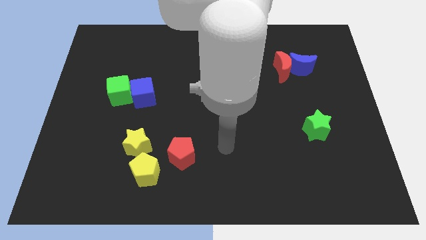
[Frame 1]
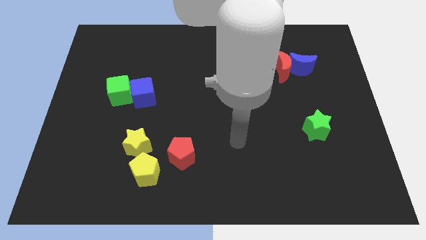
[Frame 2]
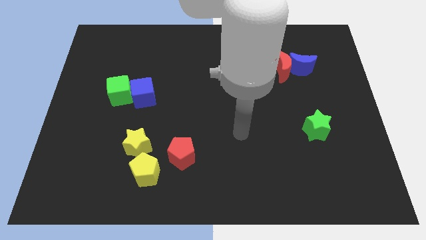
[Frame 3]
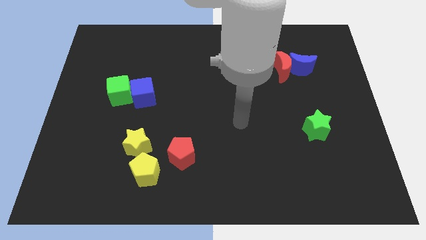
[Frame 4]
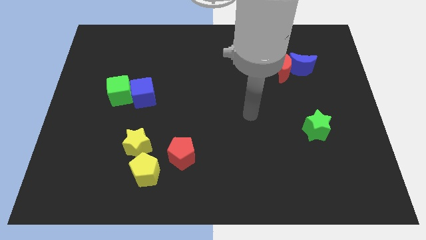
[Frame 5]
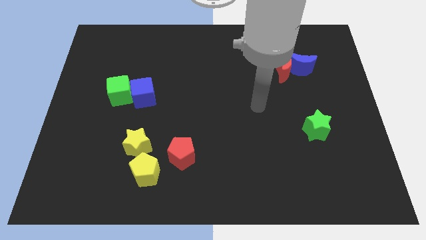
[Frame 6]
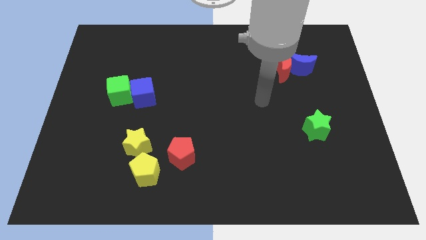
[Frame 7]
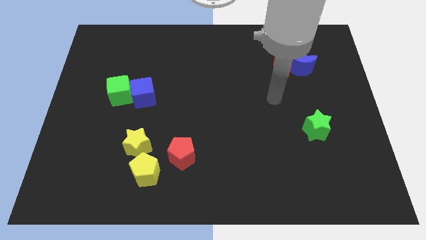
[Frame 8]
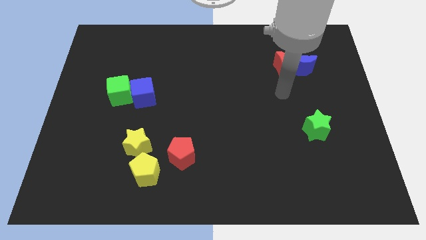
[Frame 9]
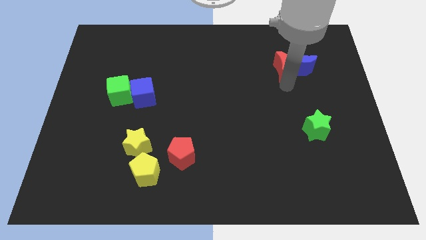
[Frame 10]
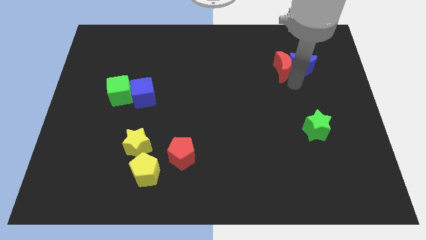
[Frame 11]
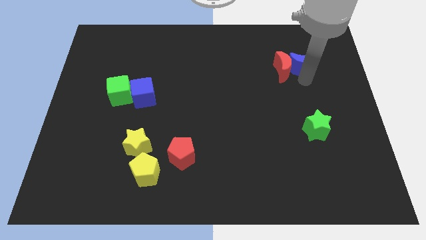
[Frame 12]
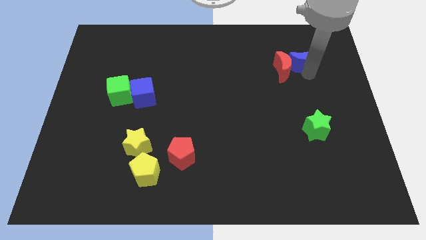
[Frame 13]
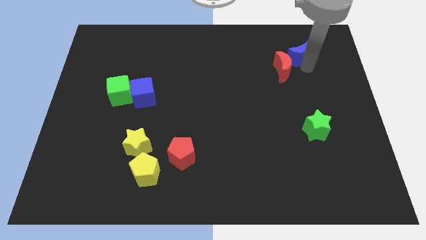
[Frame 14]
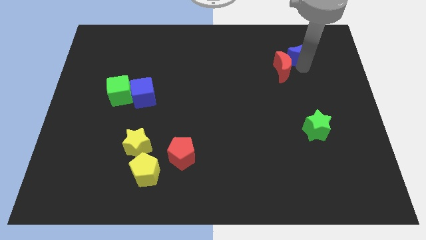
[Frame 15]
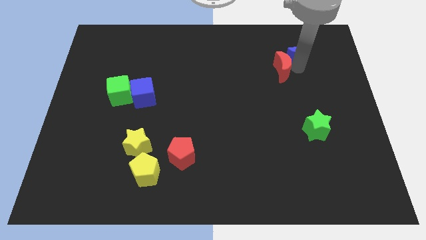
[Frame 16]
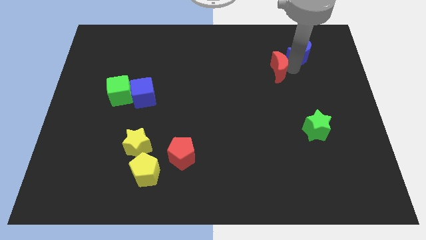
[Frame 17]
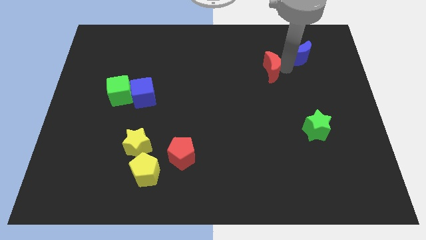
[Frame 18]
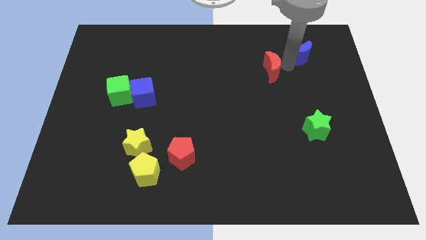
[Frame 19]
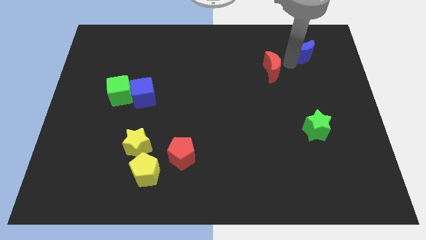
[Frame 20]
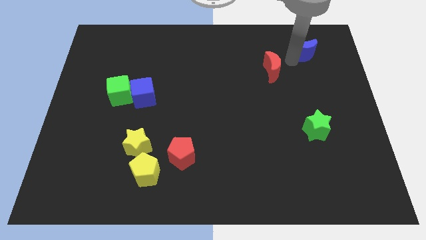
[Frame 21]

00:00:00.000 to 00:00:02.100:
move the red moon away from the blue moon

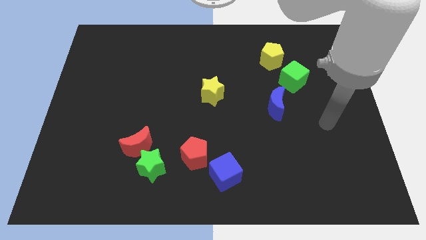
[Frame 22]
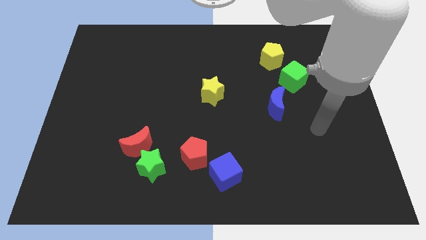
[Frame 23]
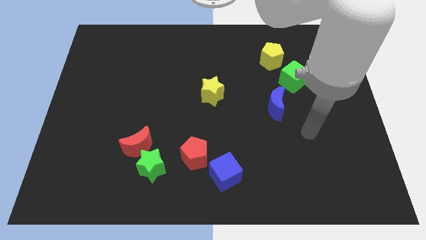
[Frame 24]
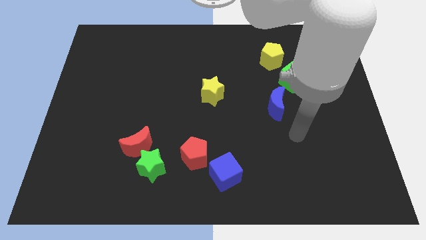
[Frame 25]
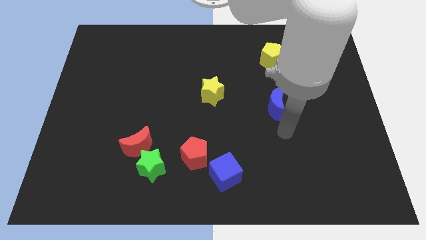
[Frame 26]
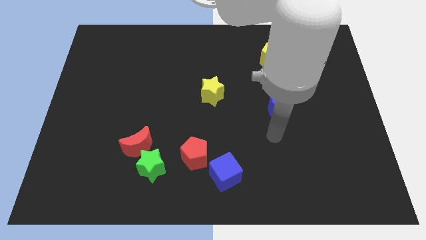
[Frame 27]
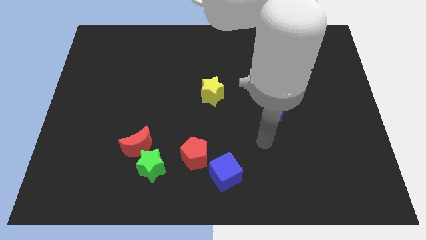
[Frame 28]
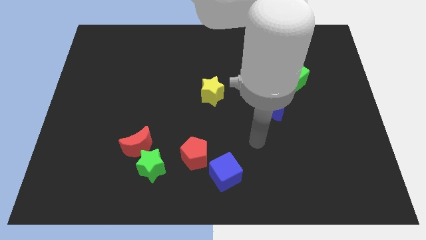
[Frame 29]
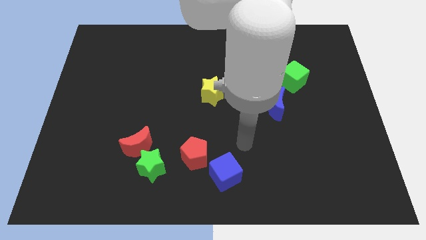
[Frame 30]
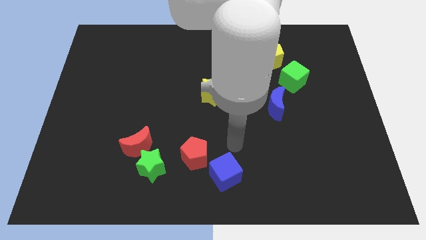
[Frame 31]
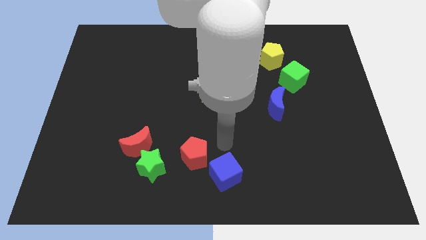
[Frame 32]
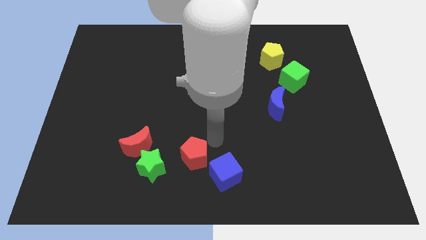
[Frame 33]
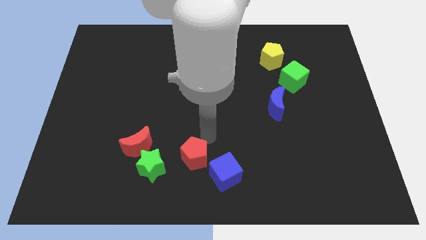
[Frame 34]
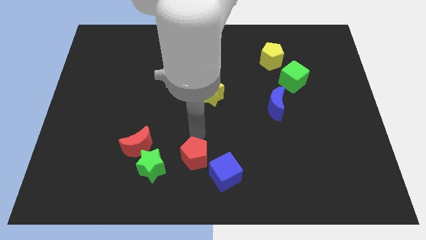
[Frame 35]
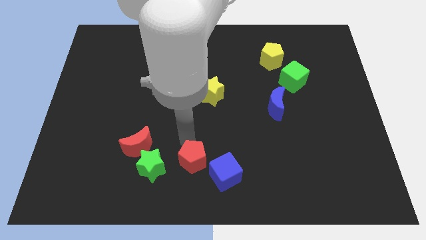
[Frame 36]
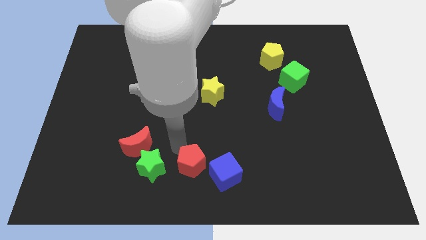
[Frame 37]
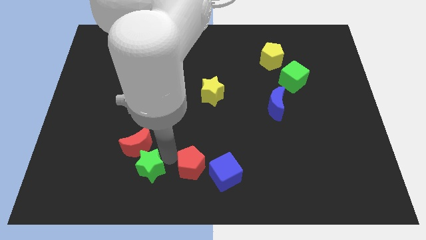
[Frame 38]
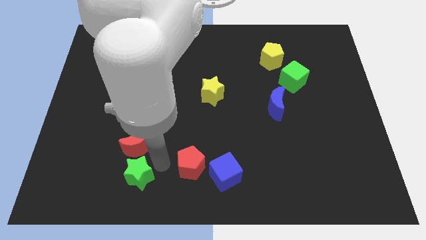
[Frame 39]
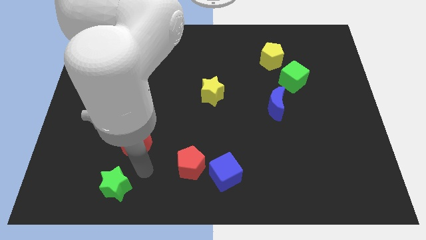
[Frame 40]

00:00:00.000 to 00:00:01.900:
separate the red moon from the green star

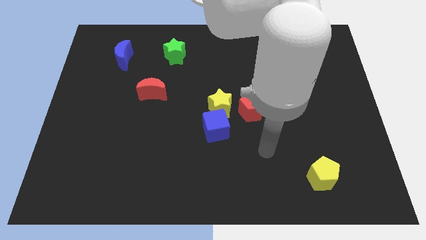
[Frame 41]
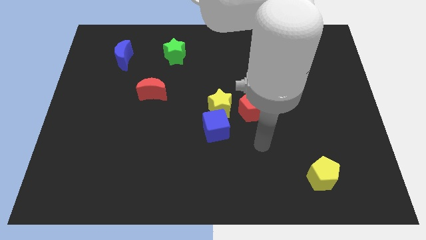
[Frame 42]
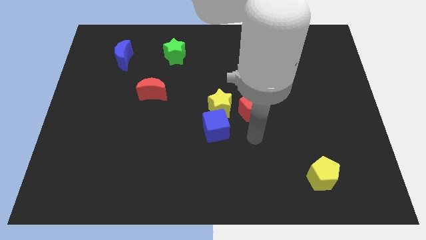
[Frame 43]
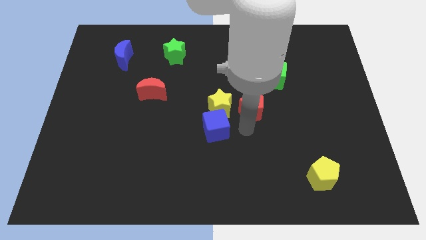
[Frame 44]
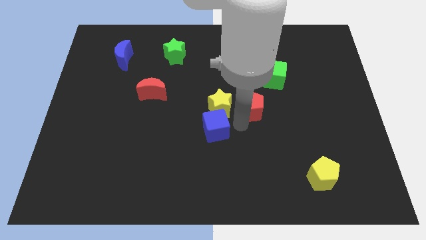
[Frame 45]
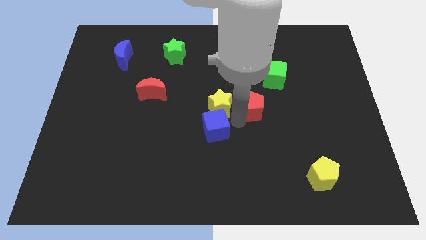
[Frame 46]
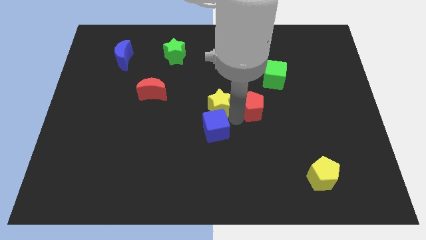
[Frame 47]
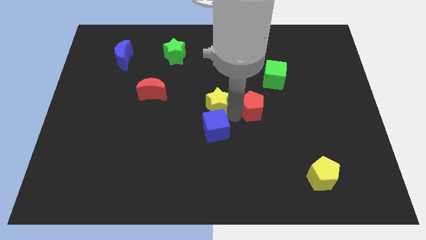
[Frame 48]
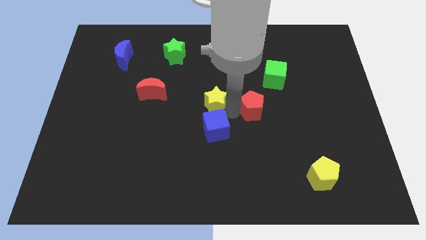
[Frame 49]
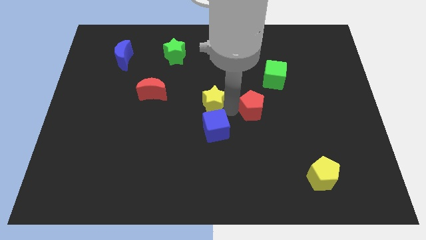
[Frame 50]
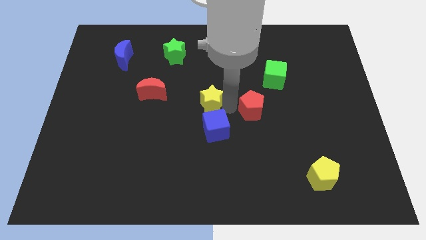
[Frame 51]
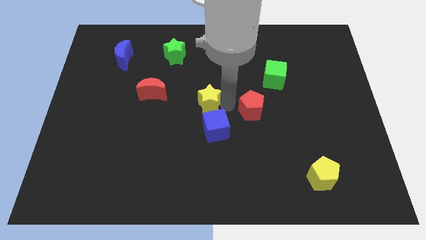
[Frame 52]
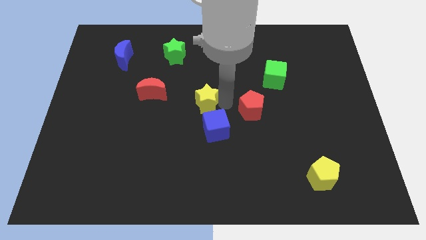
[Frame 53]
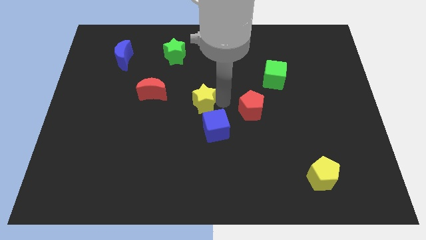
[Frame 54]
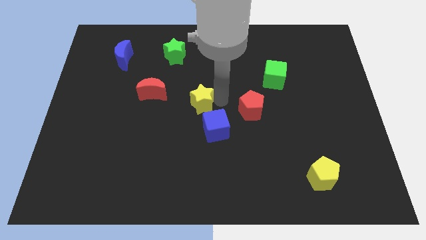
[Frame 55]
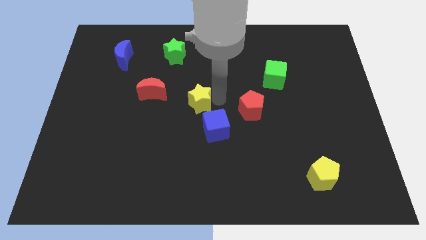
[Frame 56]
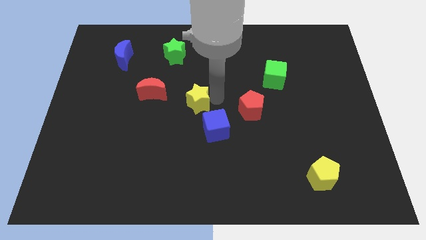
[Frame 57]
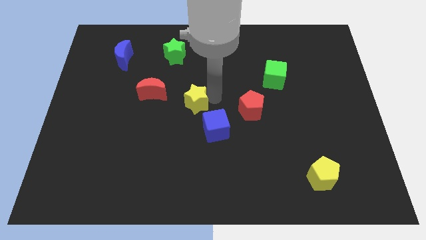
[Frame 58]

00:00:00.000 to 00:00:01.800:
move the yellow star away from the blue cube and red pentagon

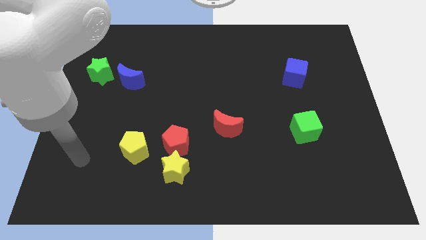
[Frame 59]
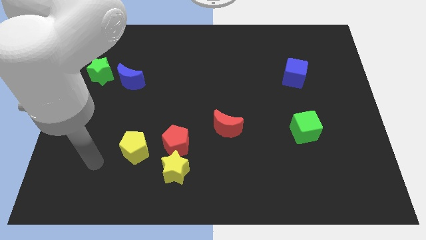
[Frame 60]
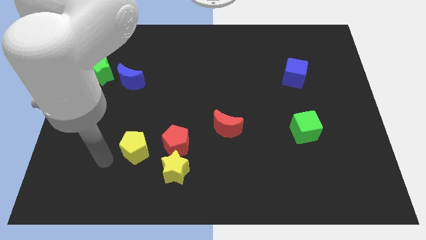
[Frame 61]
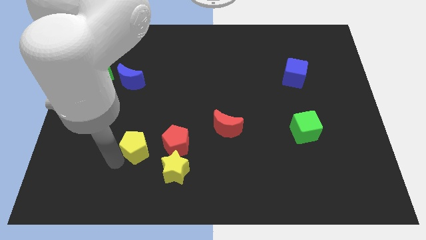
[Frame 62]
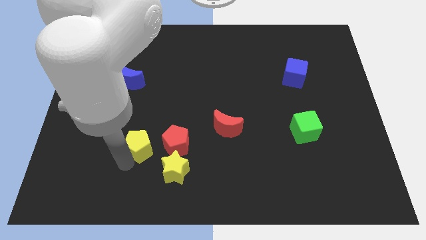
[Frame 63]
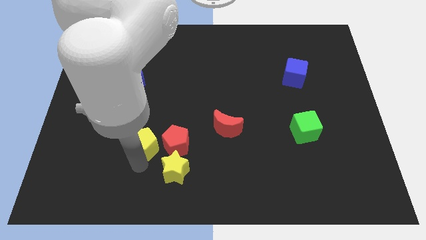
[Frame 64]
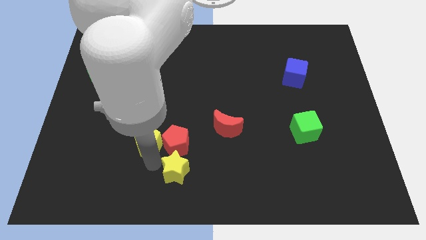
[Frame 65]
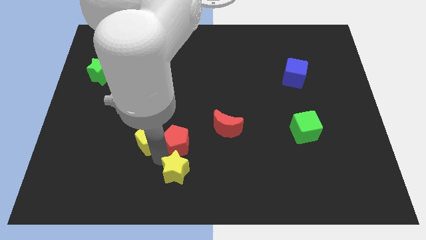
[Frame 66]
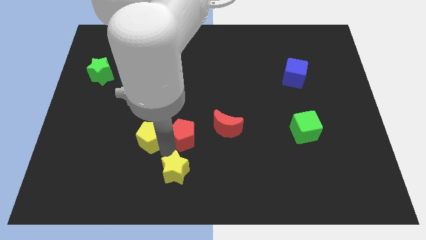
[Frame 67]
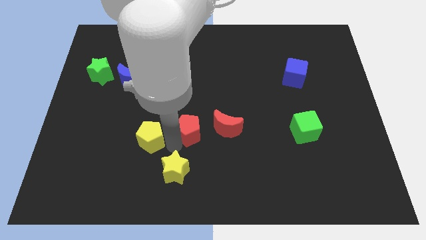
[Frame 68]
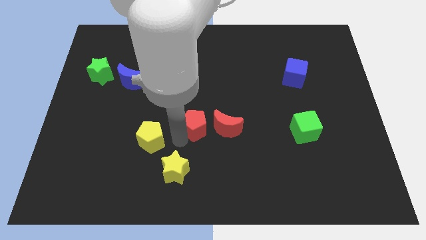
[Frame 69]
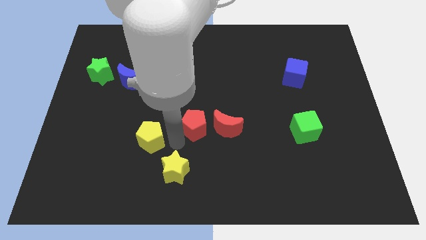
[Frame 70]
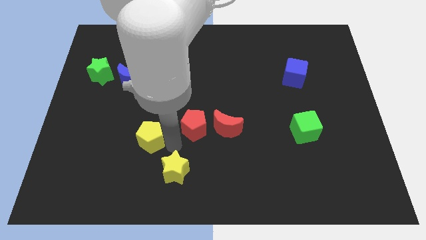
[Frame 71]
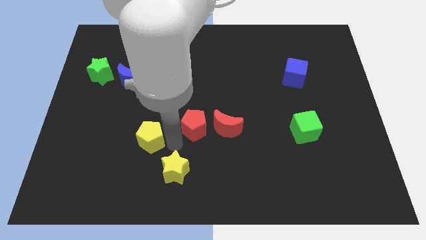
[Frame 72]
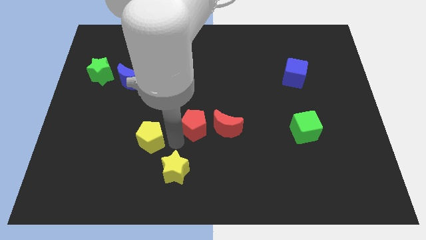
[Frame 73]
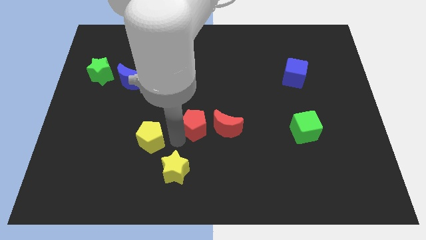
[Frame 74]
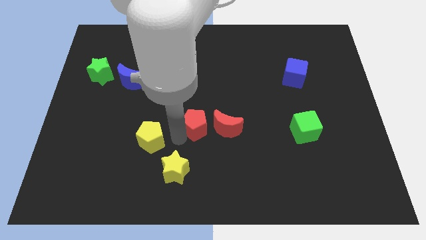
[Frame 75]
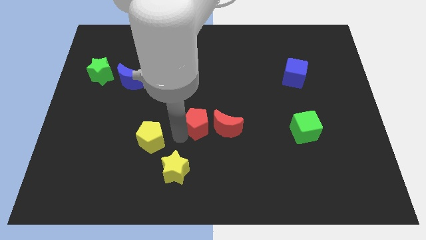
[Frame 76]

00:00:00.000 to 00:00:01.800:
move the red pentagon away from the yellow star and yellow pentagon

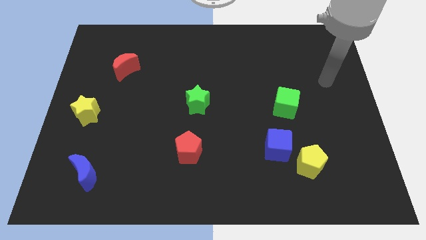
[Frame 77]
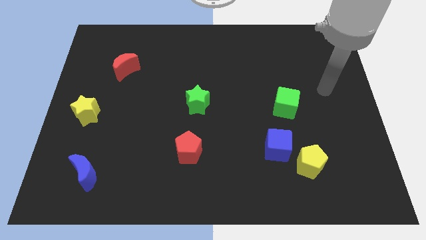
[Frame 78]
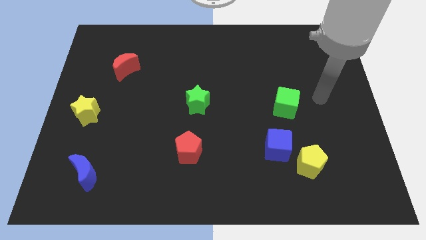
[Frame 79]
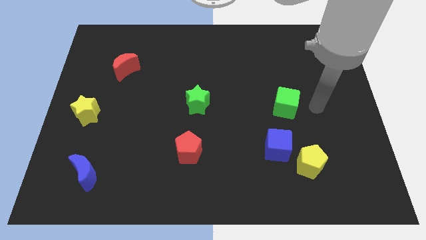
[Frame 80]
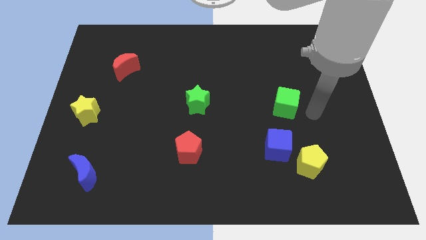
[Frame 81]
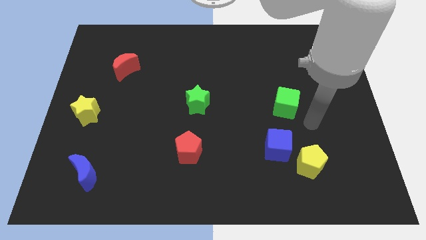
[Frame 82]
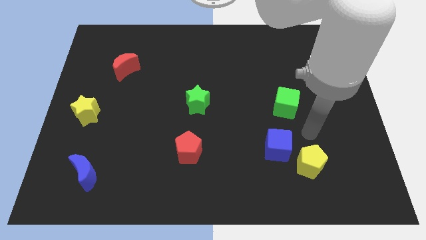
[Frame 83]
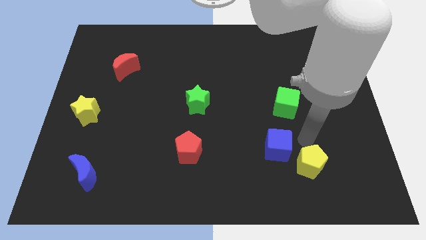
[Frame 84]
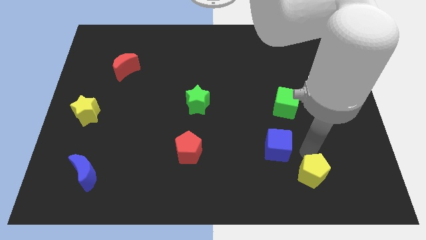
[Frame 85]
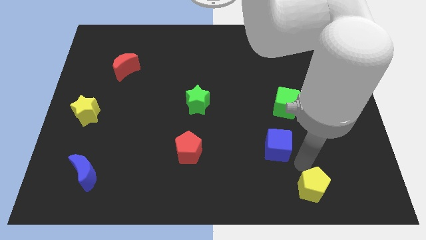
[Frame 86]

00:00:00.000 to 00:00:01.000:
pull the blue cube apart from the yellow pentagon

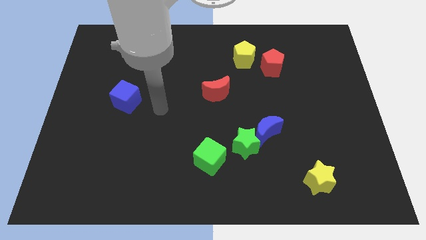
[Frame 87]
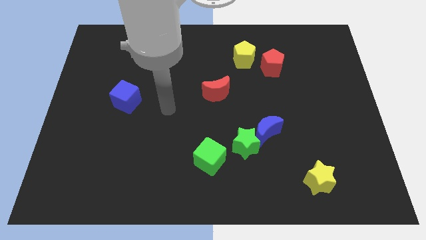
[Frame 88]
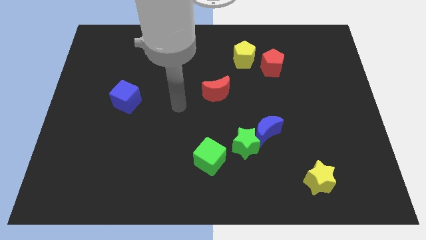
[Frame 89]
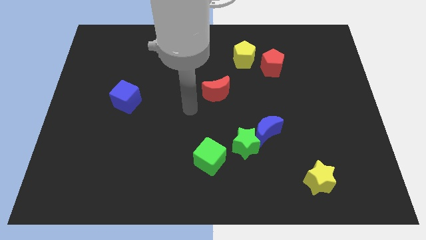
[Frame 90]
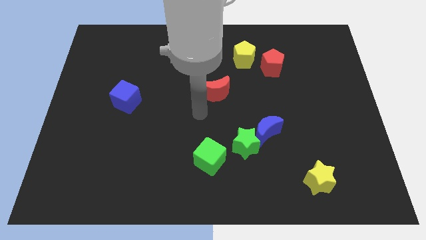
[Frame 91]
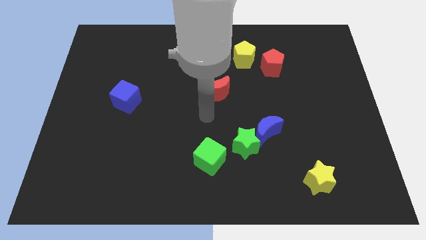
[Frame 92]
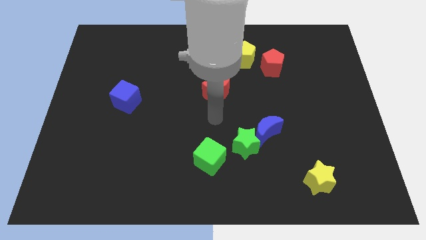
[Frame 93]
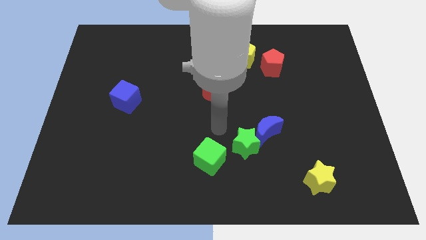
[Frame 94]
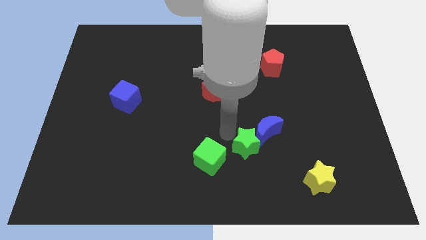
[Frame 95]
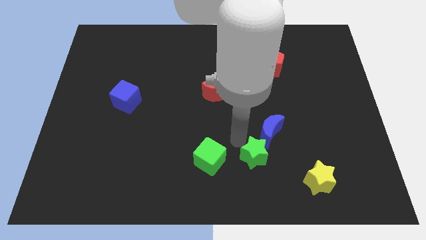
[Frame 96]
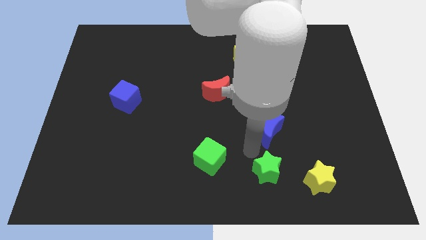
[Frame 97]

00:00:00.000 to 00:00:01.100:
move the blue moon away from the green star
